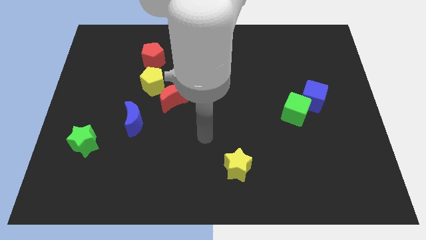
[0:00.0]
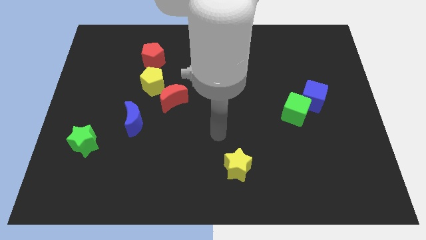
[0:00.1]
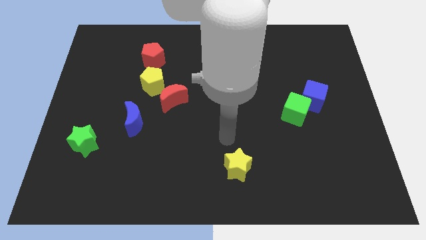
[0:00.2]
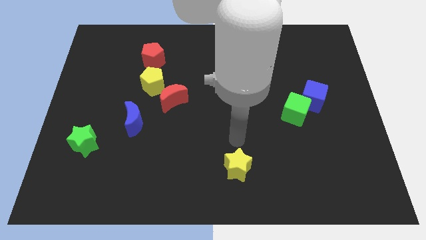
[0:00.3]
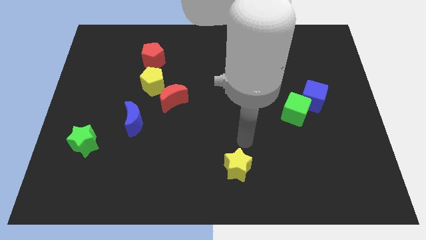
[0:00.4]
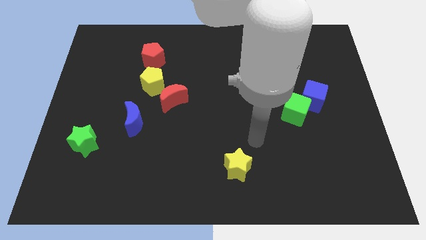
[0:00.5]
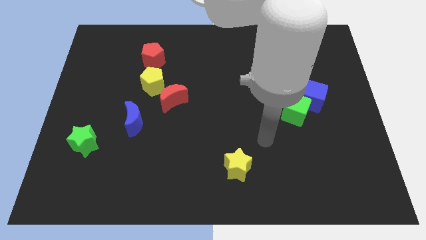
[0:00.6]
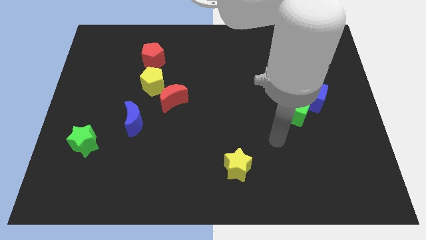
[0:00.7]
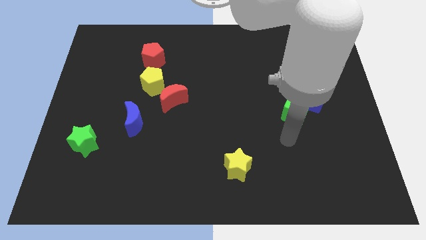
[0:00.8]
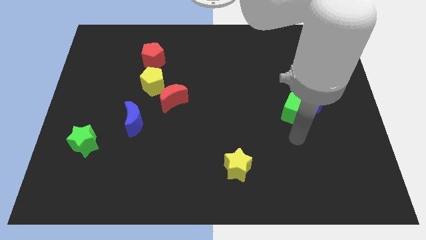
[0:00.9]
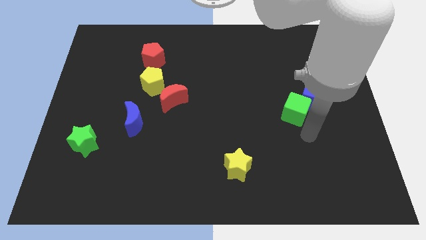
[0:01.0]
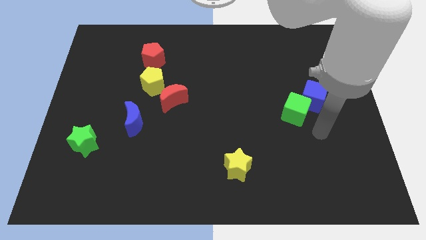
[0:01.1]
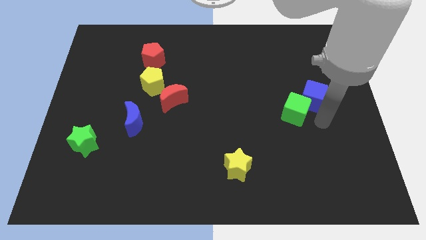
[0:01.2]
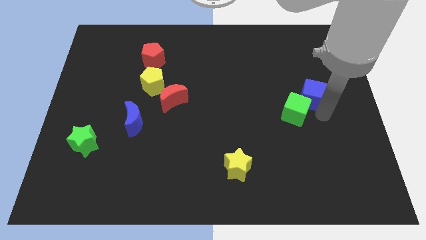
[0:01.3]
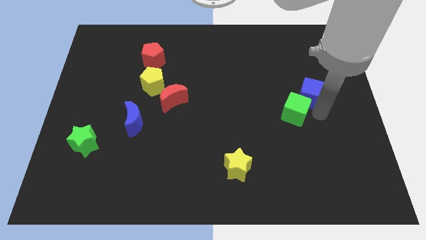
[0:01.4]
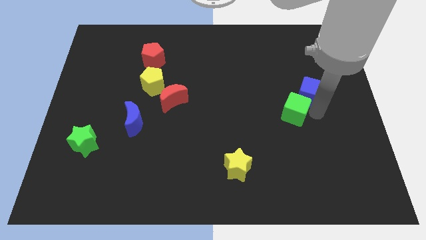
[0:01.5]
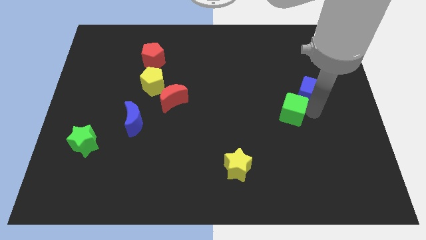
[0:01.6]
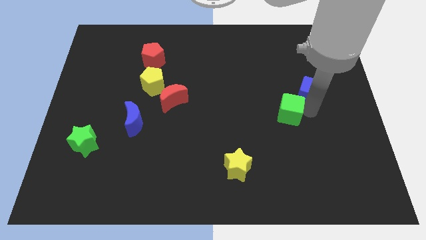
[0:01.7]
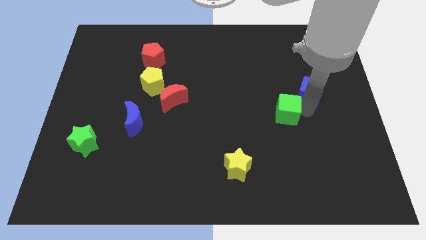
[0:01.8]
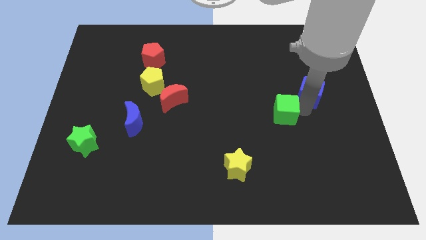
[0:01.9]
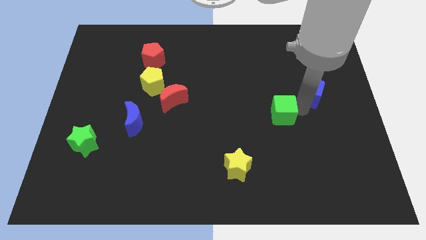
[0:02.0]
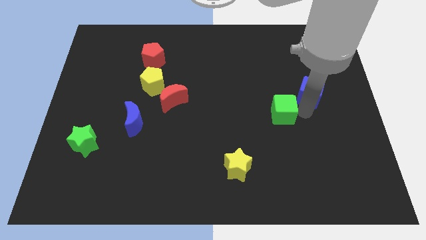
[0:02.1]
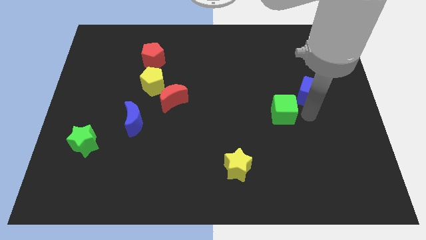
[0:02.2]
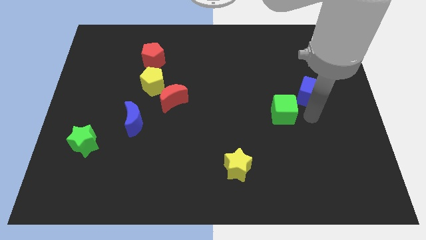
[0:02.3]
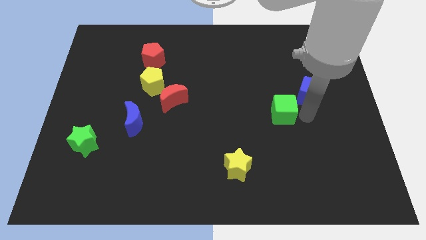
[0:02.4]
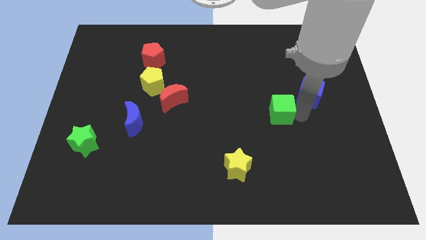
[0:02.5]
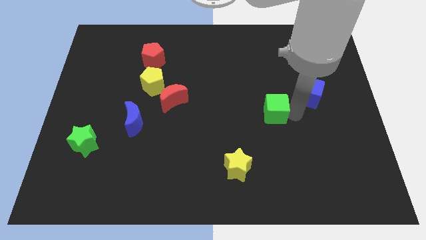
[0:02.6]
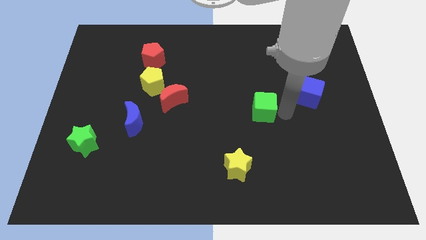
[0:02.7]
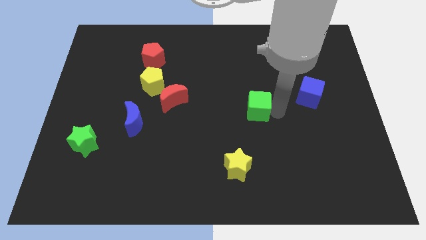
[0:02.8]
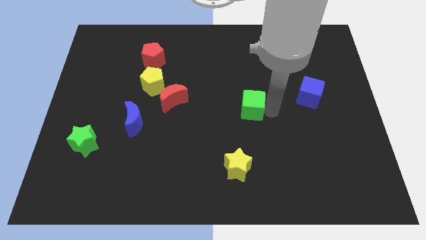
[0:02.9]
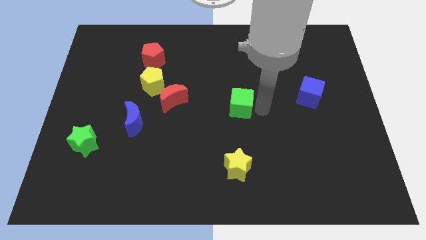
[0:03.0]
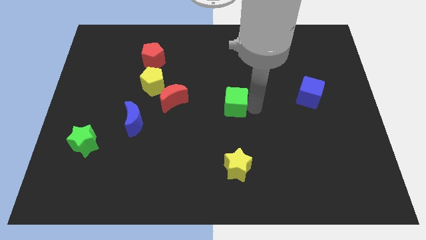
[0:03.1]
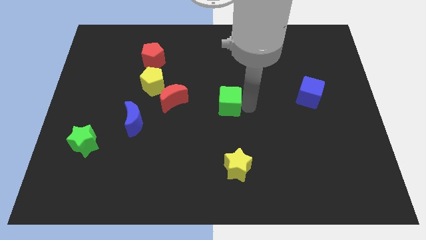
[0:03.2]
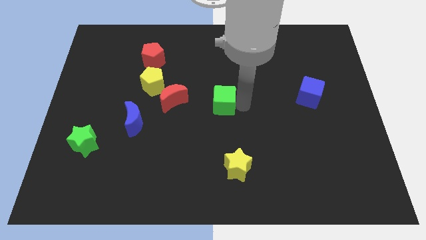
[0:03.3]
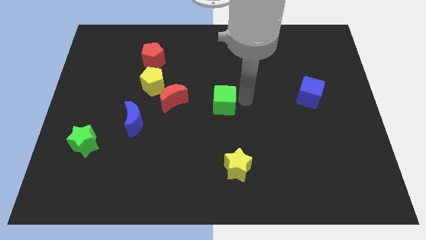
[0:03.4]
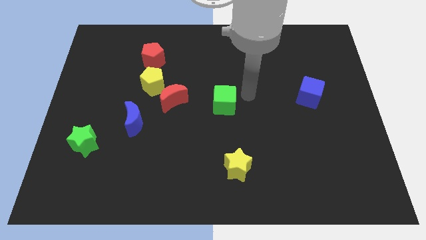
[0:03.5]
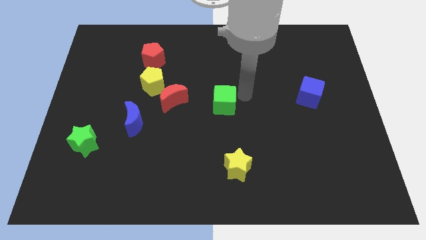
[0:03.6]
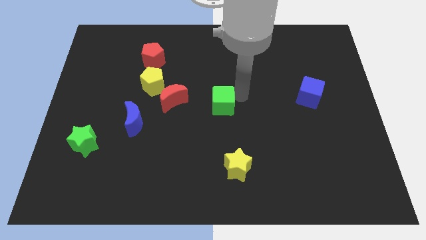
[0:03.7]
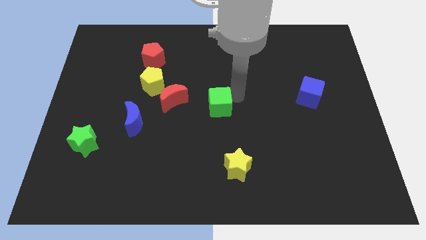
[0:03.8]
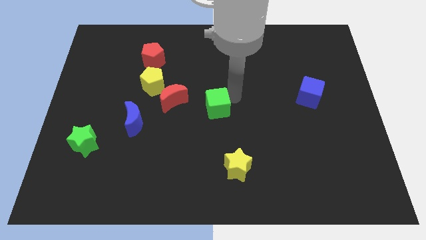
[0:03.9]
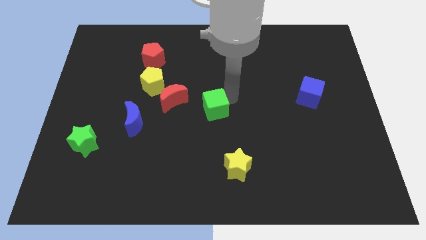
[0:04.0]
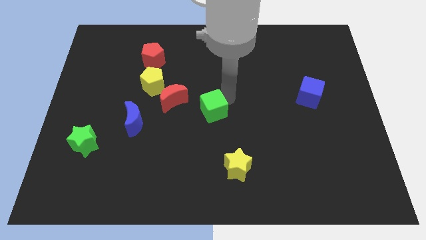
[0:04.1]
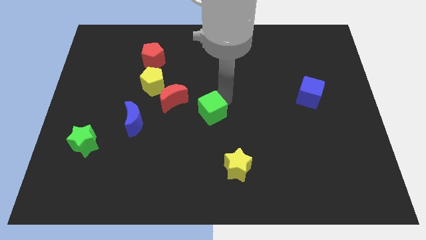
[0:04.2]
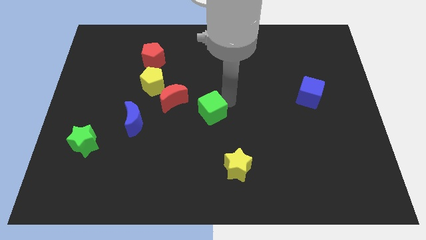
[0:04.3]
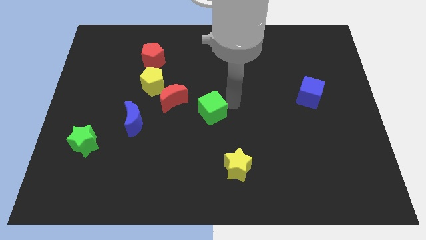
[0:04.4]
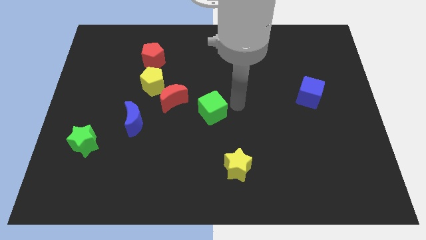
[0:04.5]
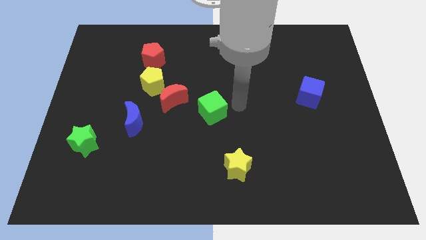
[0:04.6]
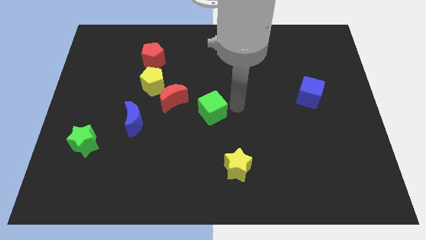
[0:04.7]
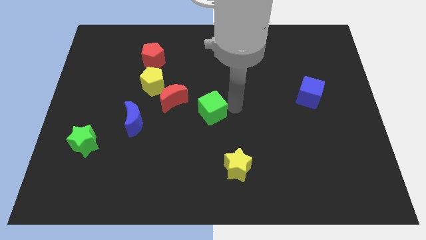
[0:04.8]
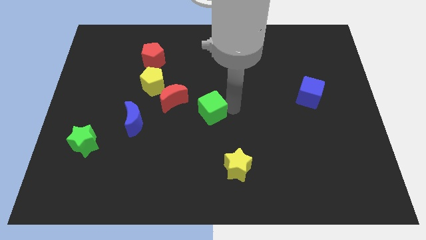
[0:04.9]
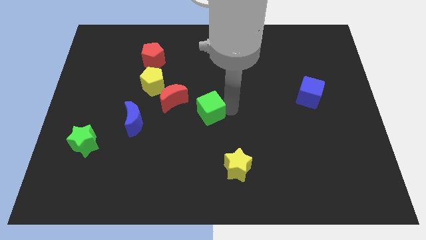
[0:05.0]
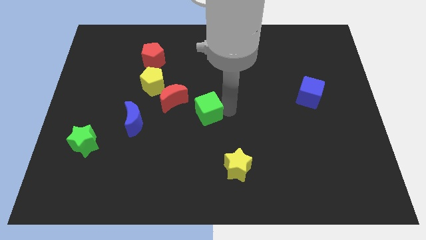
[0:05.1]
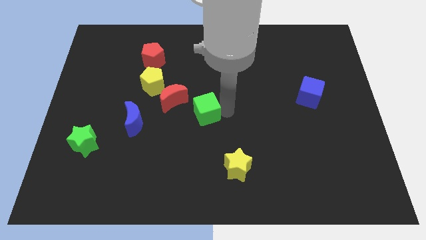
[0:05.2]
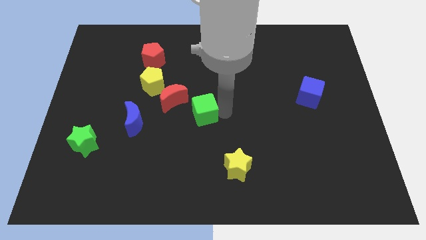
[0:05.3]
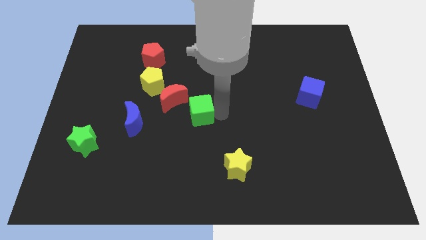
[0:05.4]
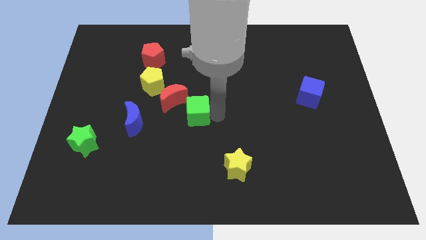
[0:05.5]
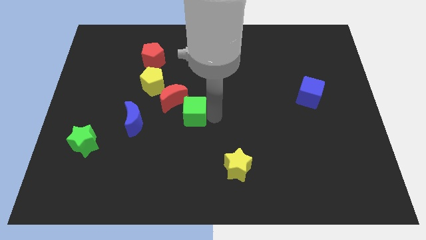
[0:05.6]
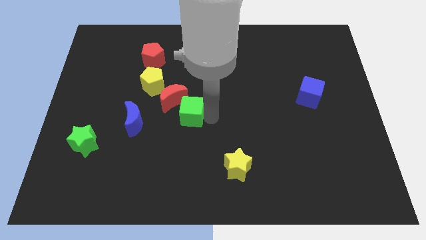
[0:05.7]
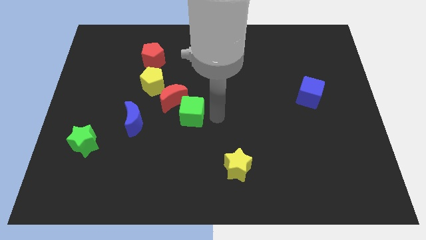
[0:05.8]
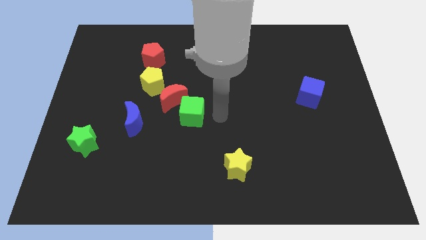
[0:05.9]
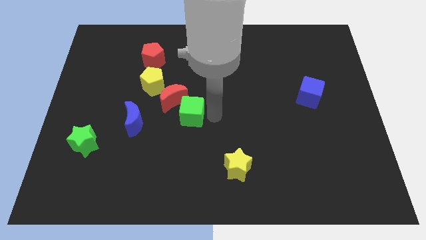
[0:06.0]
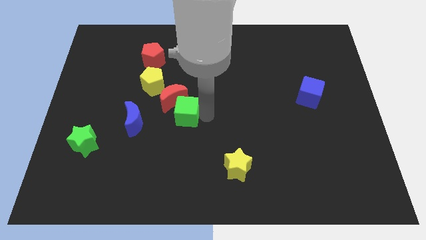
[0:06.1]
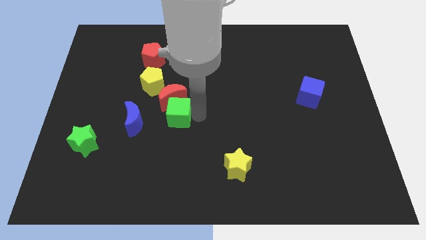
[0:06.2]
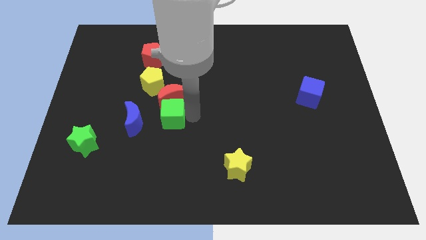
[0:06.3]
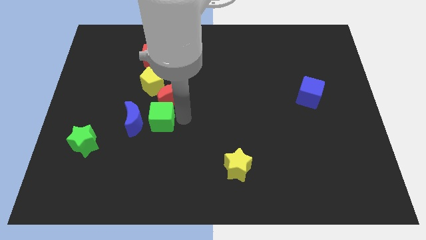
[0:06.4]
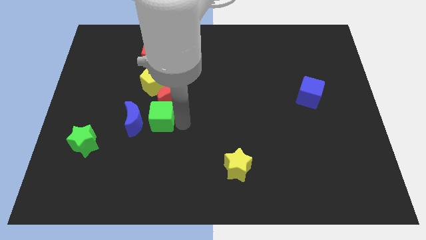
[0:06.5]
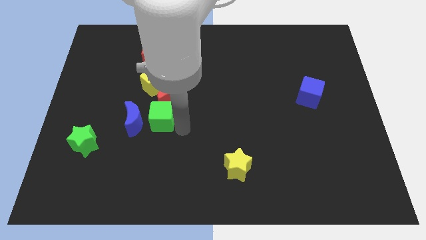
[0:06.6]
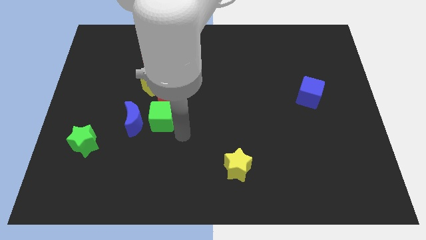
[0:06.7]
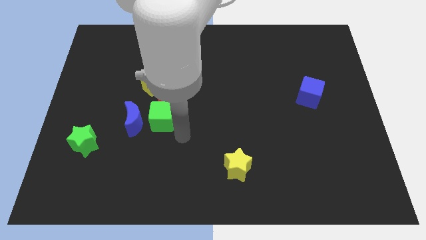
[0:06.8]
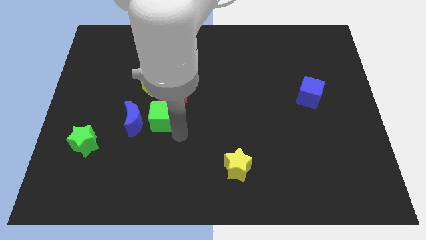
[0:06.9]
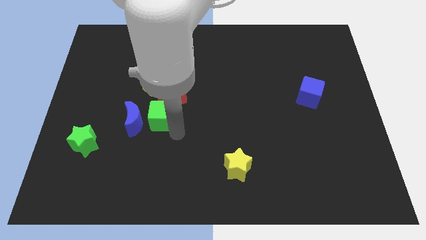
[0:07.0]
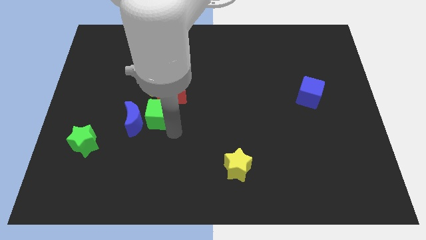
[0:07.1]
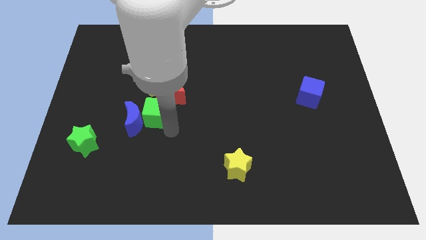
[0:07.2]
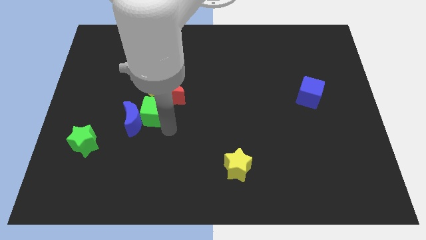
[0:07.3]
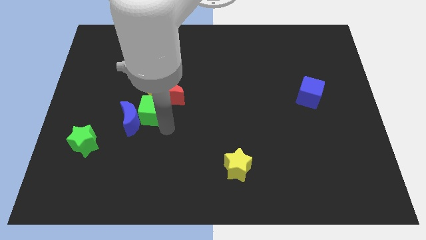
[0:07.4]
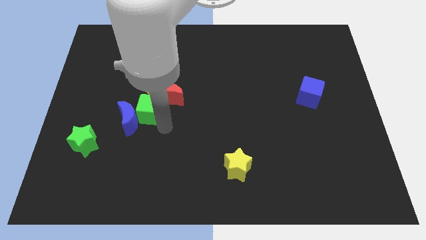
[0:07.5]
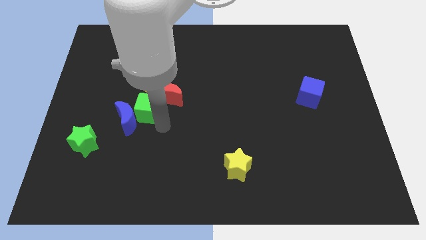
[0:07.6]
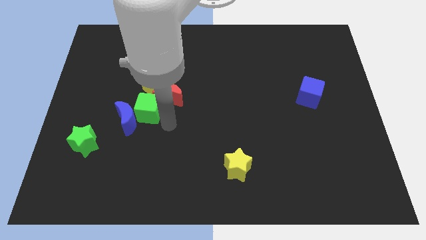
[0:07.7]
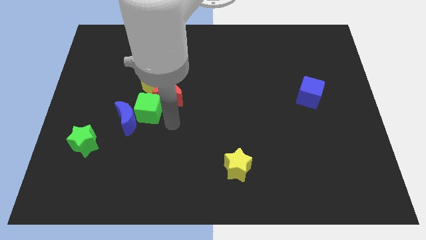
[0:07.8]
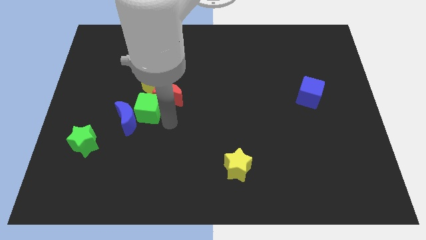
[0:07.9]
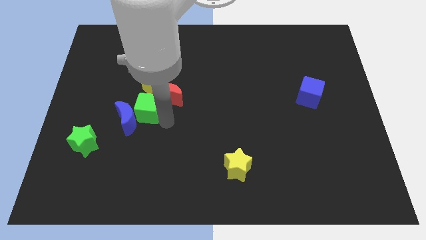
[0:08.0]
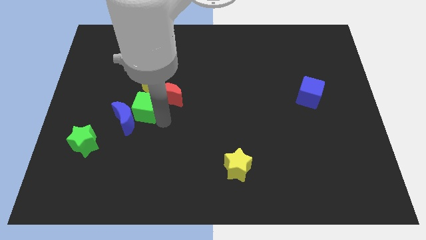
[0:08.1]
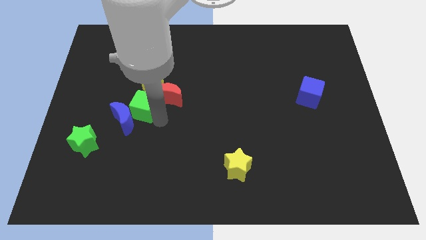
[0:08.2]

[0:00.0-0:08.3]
move the green cube to the bottom left of the yellow pentagon
